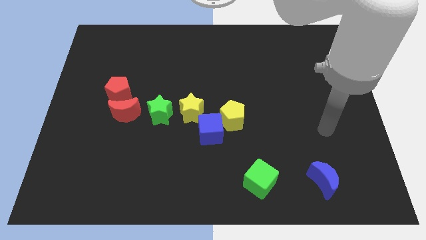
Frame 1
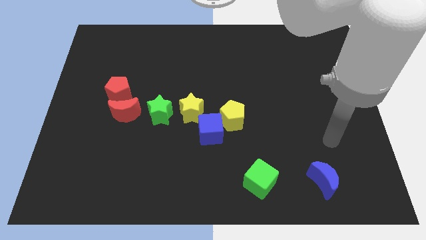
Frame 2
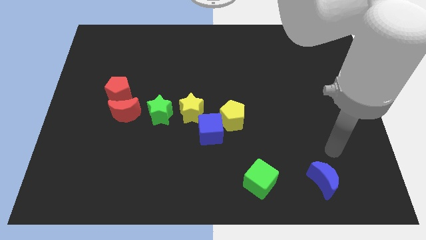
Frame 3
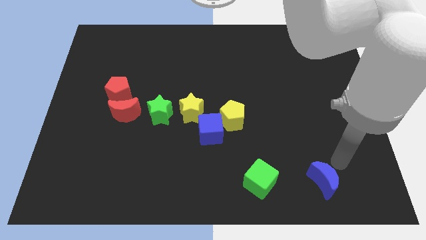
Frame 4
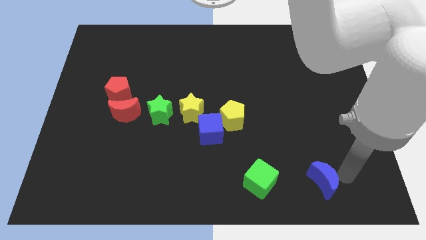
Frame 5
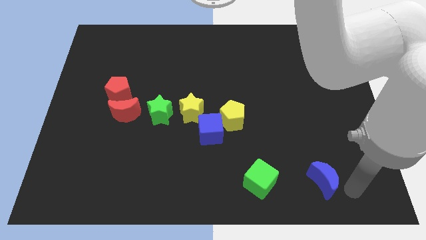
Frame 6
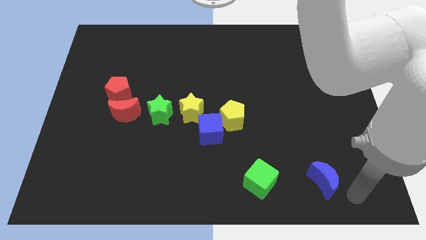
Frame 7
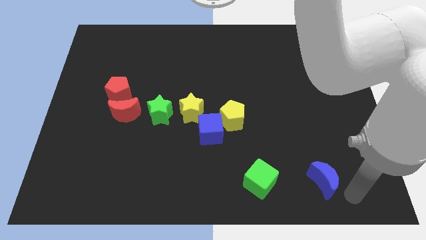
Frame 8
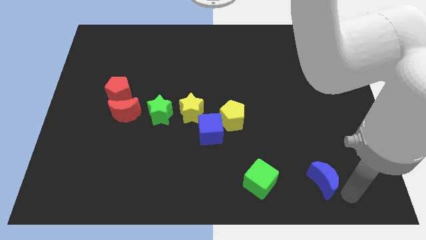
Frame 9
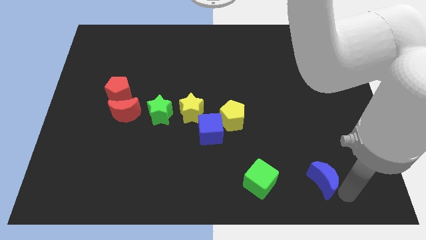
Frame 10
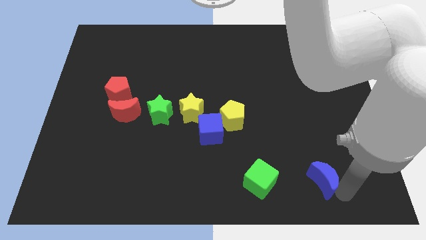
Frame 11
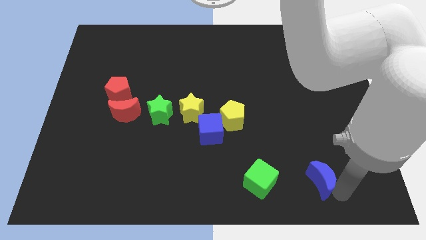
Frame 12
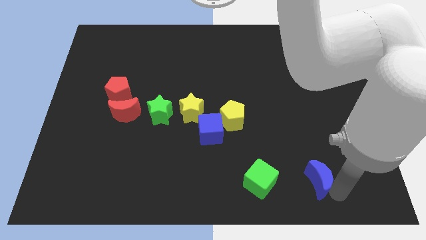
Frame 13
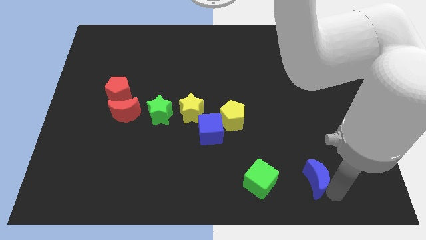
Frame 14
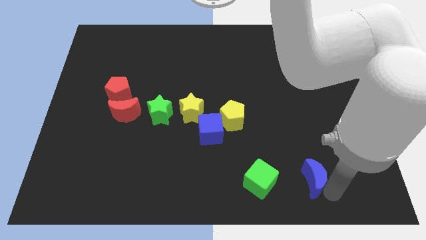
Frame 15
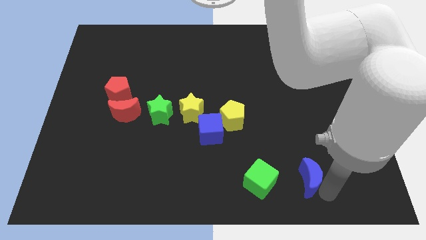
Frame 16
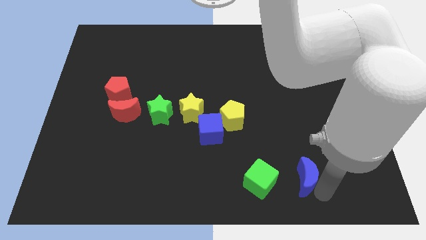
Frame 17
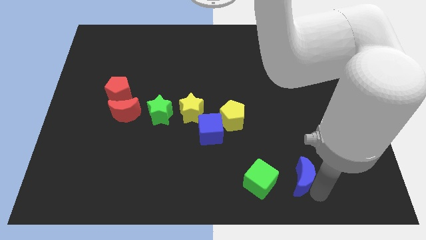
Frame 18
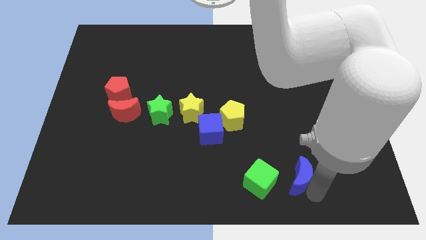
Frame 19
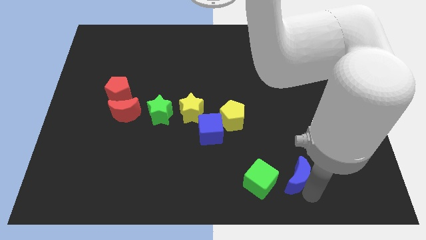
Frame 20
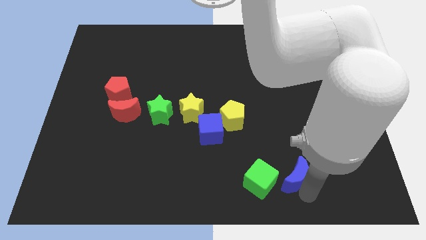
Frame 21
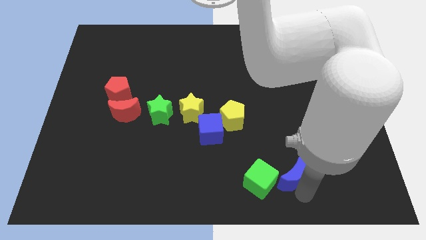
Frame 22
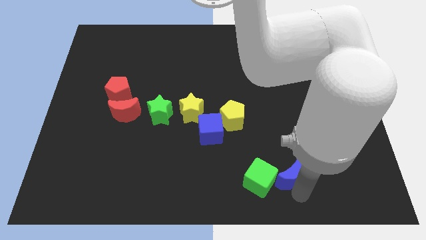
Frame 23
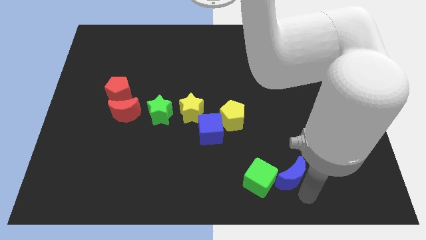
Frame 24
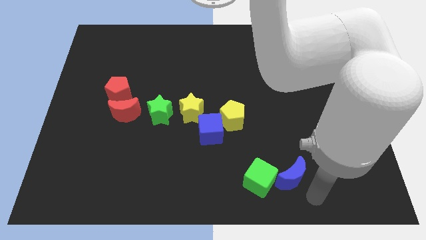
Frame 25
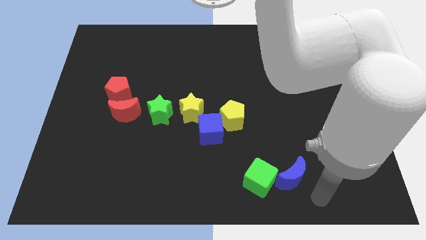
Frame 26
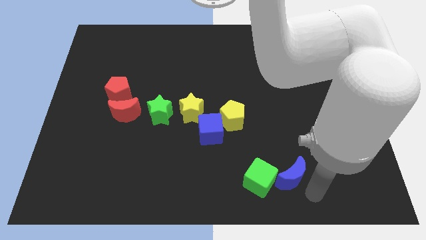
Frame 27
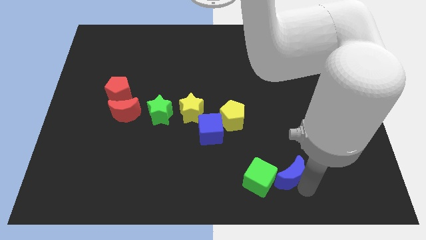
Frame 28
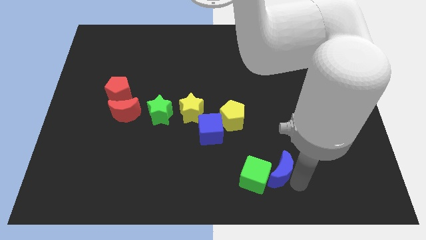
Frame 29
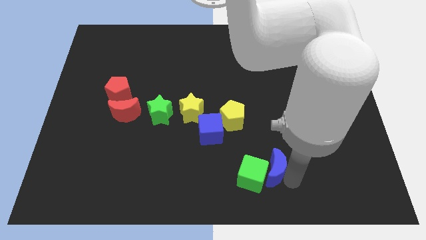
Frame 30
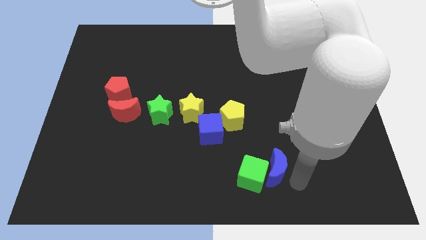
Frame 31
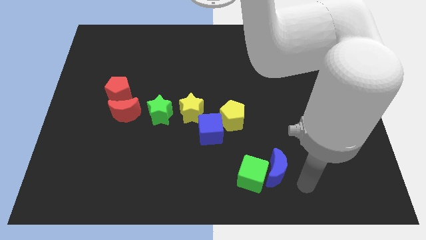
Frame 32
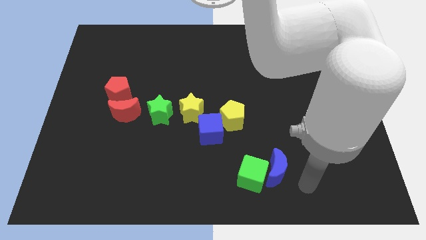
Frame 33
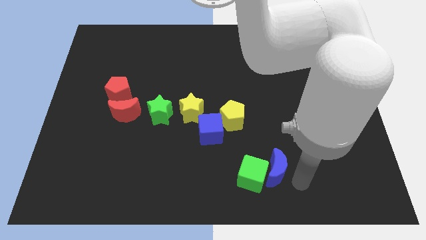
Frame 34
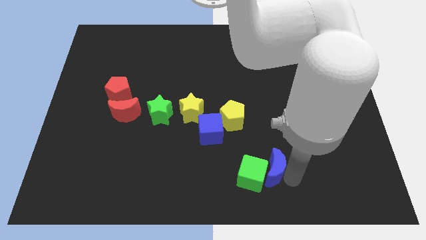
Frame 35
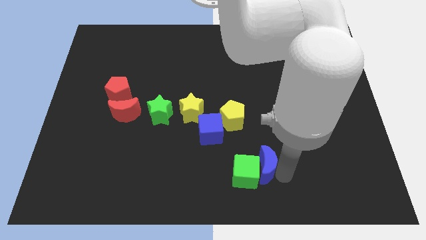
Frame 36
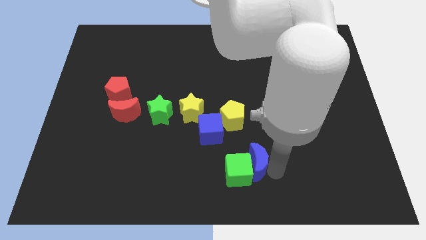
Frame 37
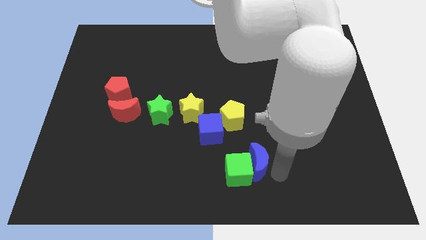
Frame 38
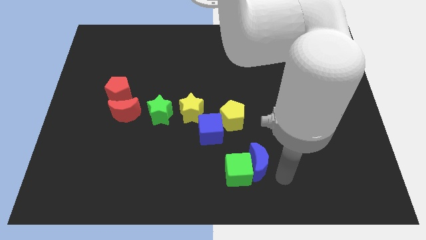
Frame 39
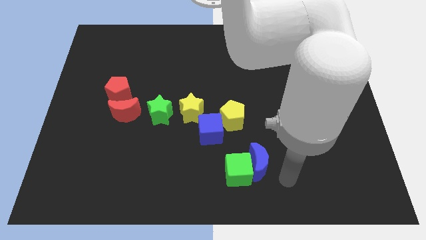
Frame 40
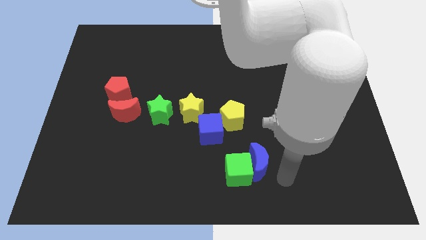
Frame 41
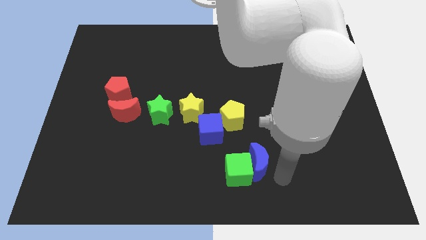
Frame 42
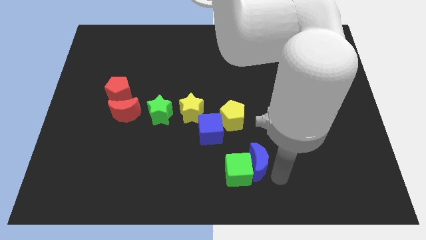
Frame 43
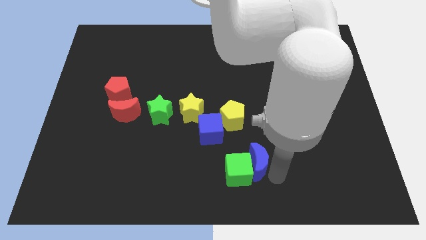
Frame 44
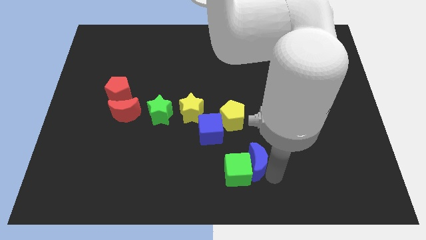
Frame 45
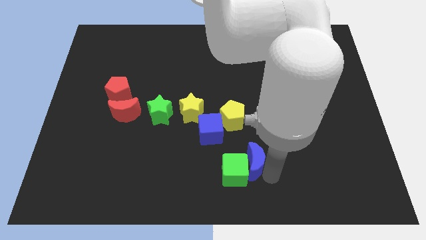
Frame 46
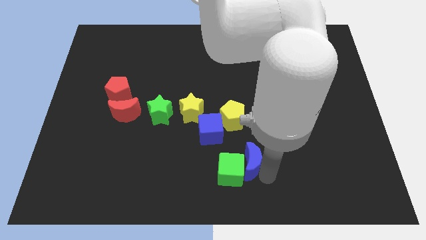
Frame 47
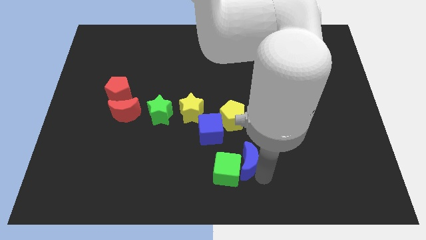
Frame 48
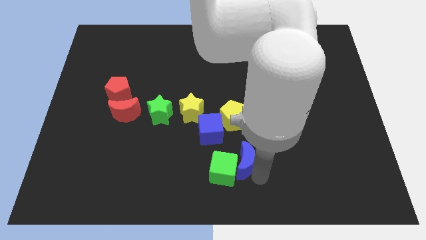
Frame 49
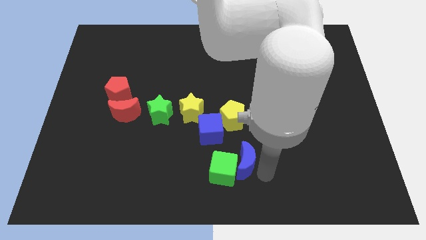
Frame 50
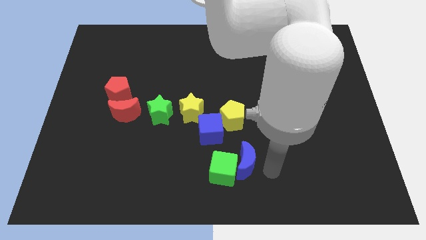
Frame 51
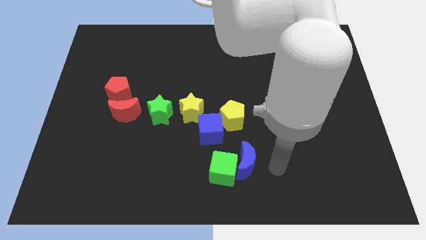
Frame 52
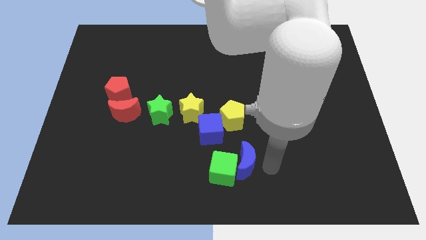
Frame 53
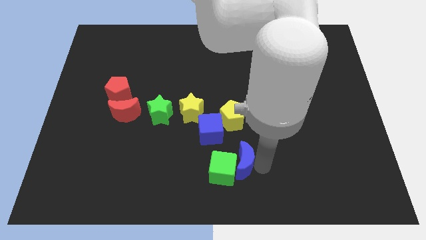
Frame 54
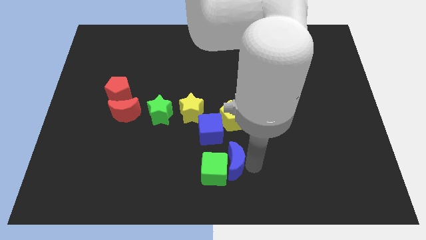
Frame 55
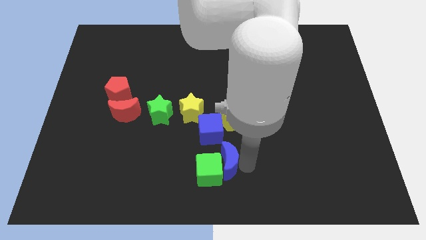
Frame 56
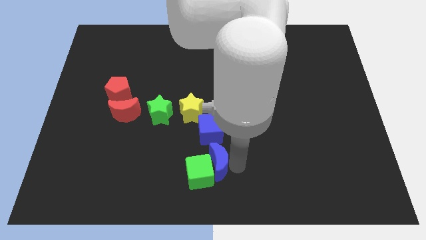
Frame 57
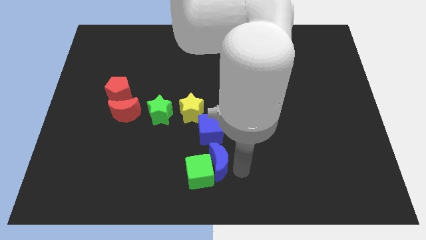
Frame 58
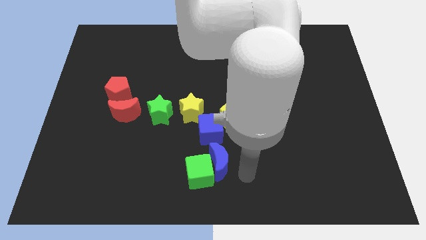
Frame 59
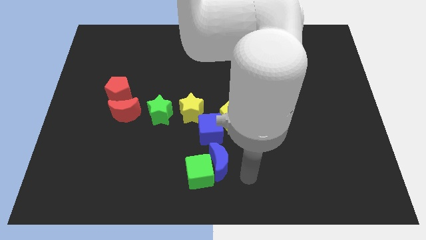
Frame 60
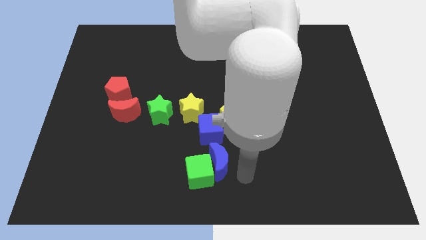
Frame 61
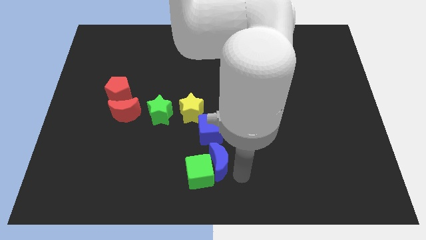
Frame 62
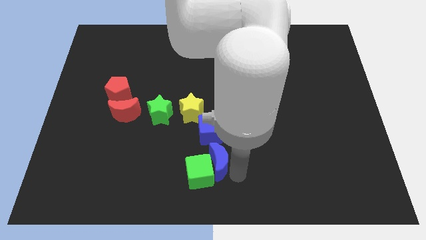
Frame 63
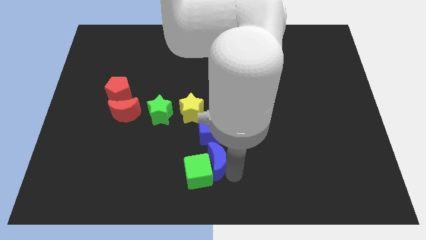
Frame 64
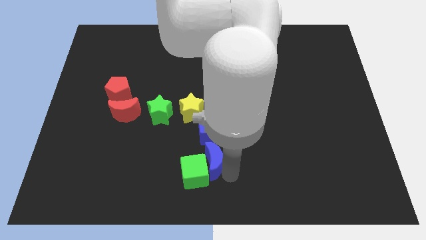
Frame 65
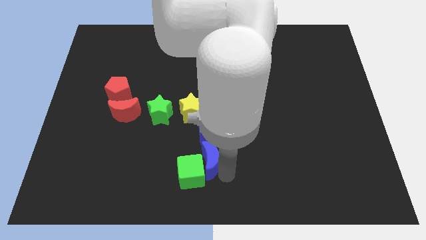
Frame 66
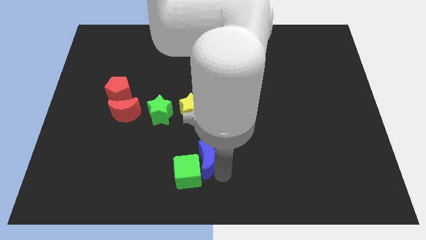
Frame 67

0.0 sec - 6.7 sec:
put the blue moon to the bottom of the yellow star
